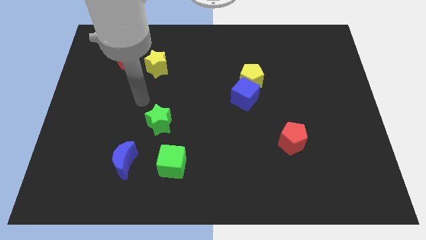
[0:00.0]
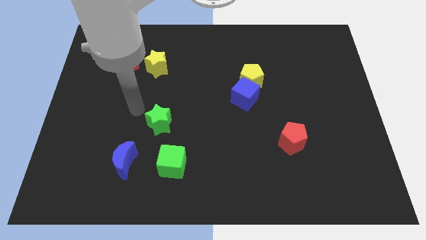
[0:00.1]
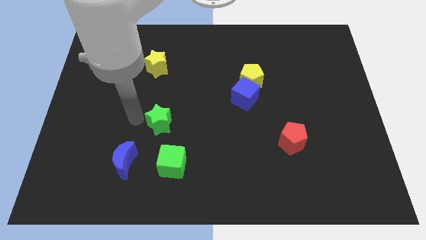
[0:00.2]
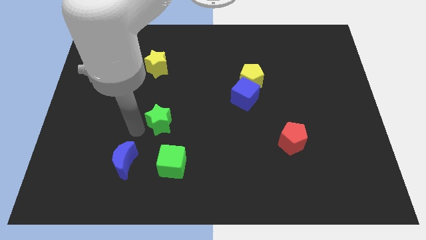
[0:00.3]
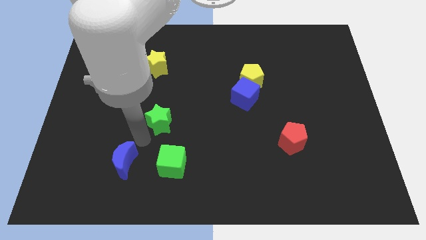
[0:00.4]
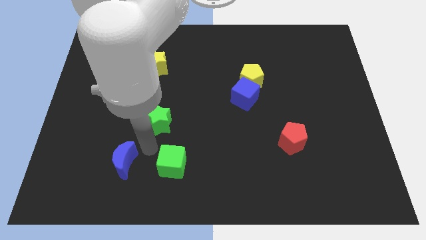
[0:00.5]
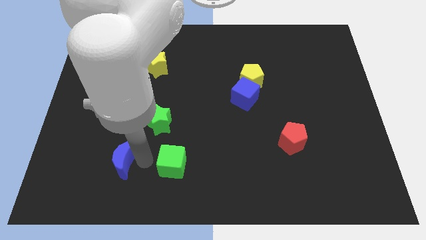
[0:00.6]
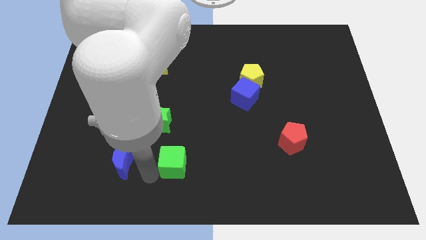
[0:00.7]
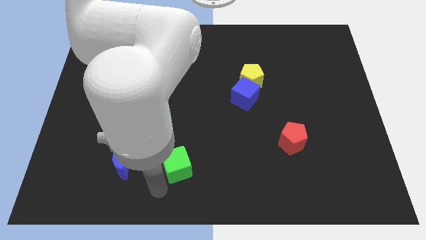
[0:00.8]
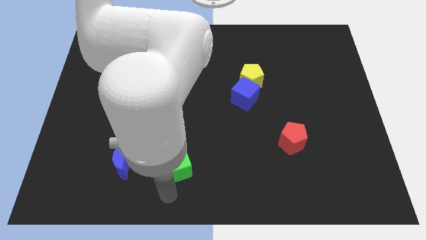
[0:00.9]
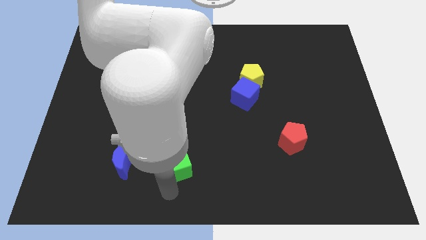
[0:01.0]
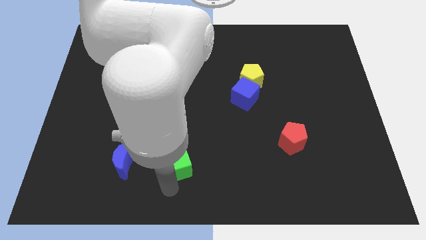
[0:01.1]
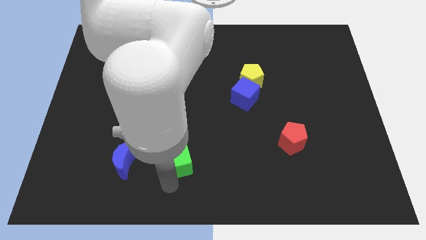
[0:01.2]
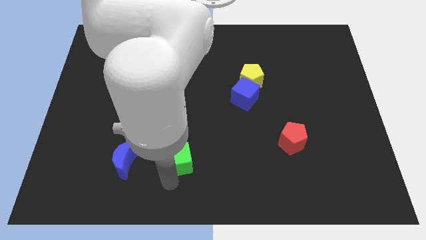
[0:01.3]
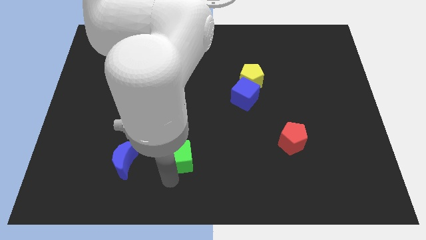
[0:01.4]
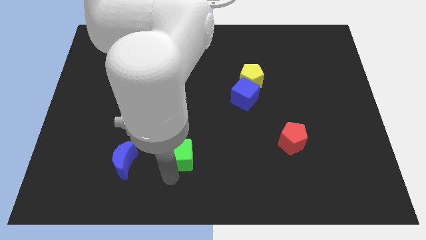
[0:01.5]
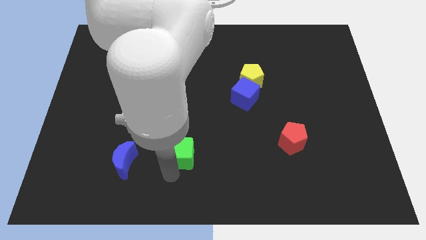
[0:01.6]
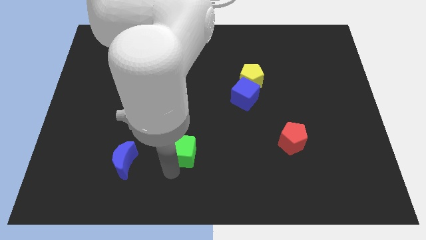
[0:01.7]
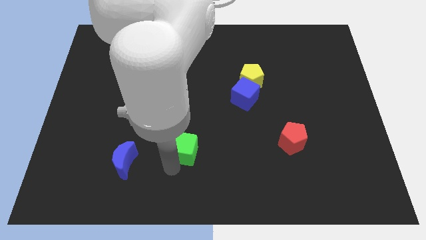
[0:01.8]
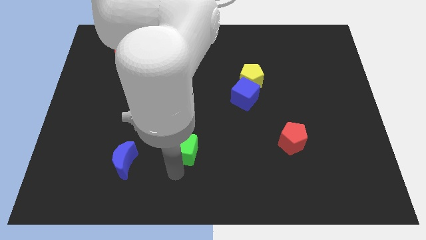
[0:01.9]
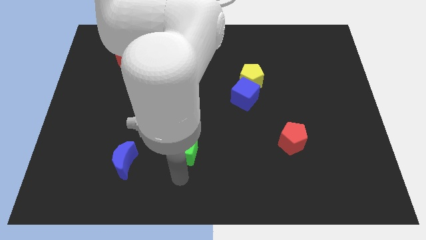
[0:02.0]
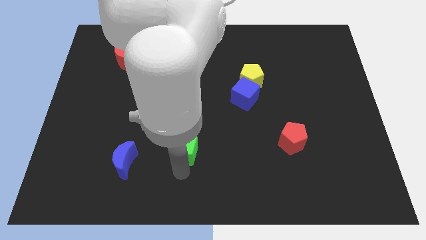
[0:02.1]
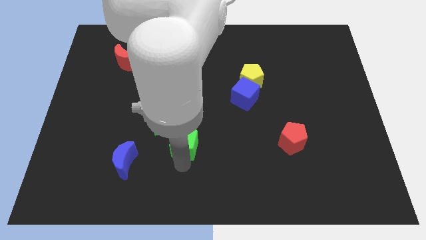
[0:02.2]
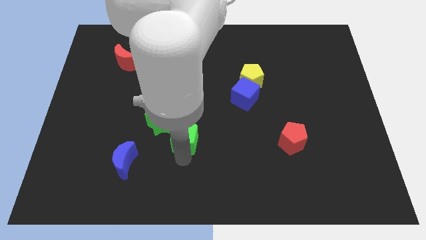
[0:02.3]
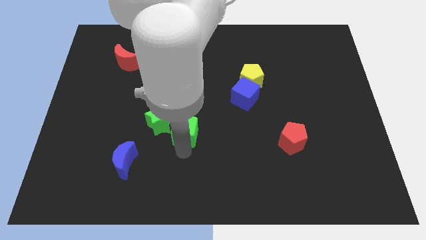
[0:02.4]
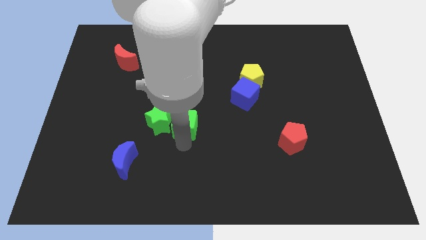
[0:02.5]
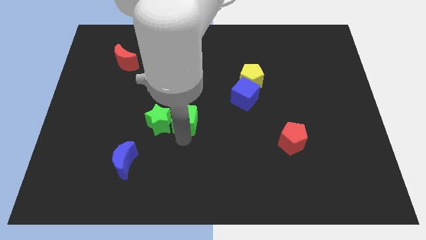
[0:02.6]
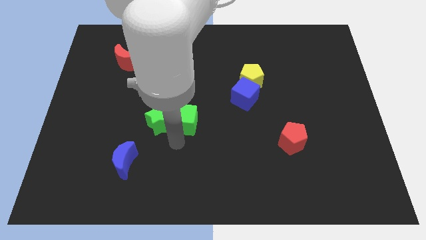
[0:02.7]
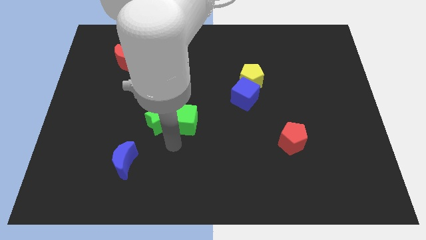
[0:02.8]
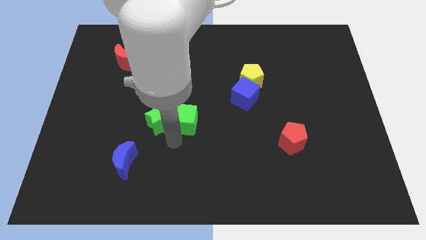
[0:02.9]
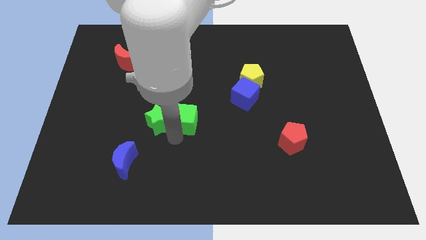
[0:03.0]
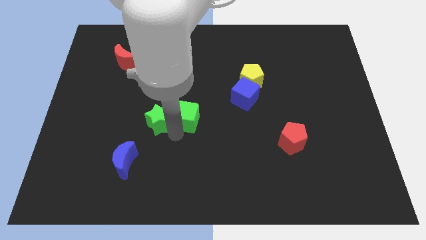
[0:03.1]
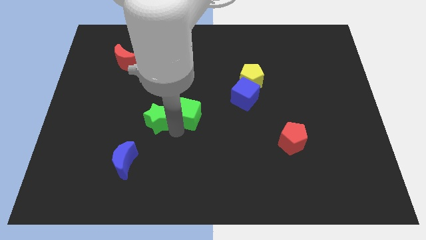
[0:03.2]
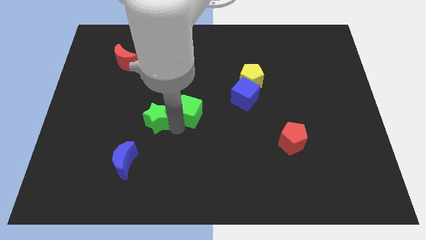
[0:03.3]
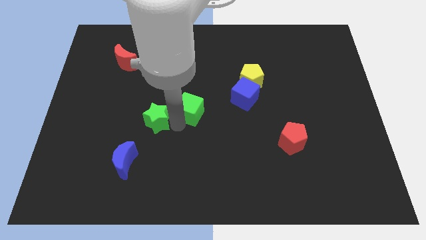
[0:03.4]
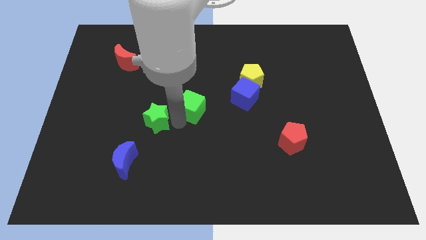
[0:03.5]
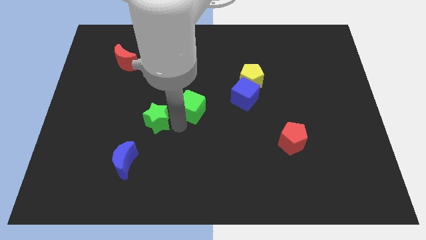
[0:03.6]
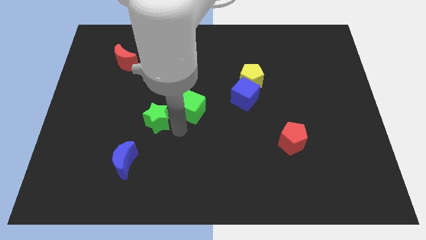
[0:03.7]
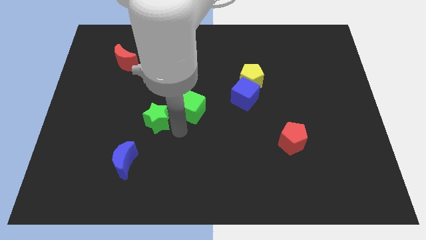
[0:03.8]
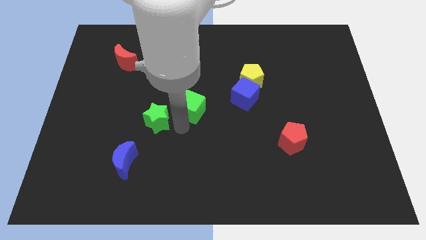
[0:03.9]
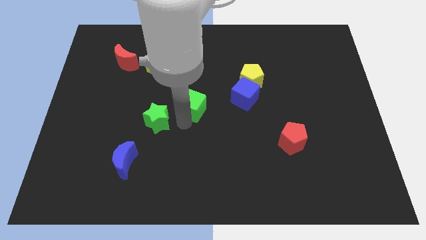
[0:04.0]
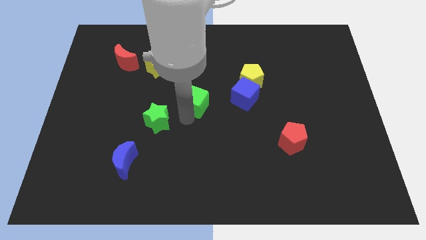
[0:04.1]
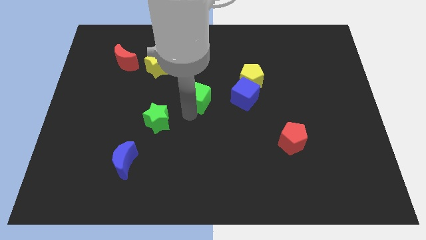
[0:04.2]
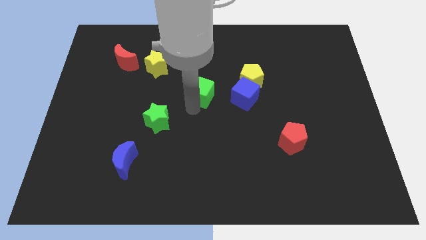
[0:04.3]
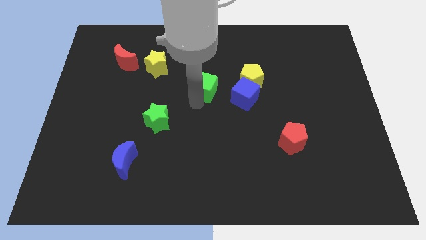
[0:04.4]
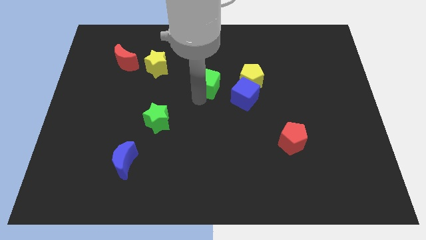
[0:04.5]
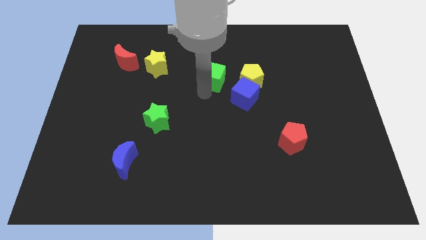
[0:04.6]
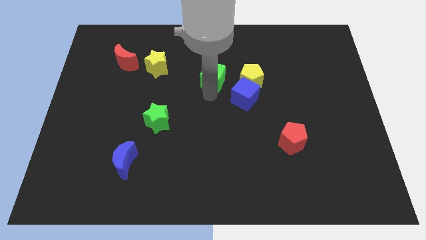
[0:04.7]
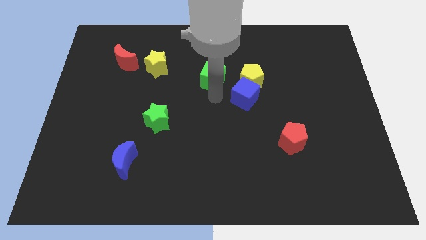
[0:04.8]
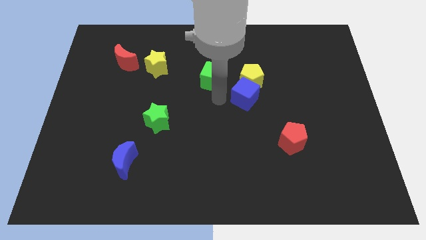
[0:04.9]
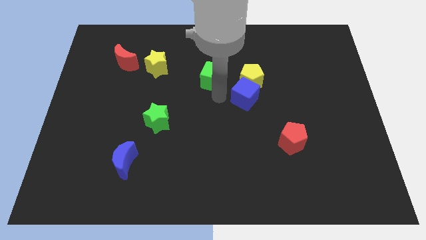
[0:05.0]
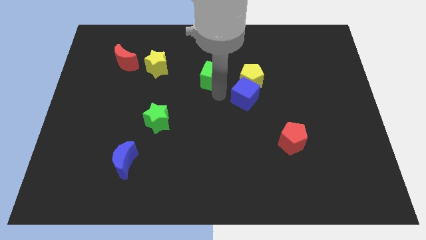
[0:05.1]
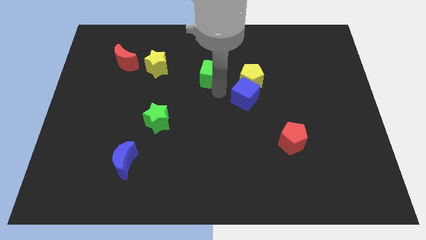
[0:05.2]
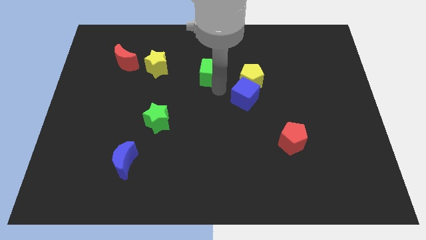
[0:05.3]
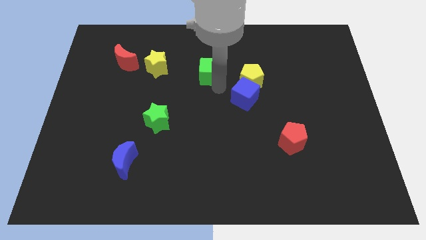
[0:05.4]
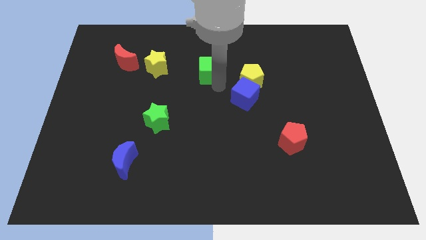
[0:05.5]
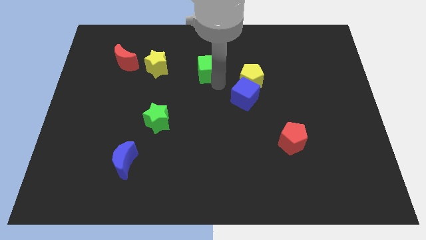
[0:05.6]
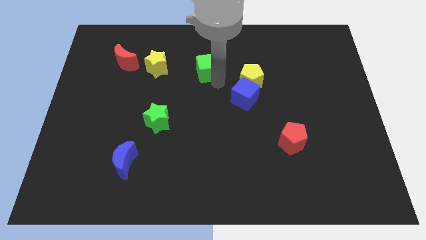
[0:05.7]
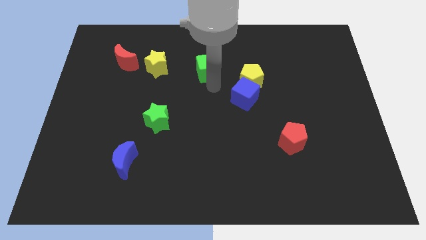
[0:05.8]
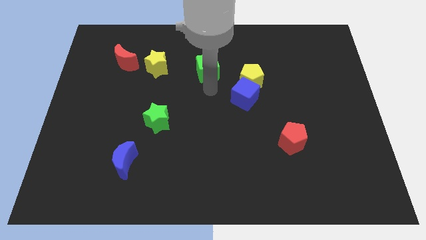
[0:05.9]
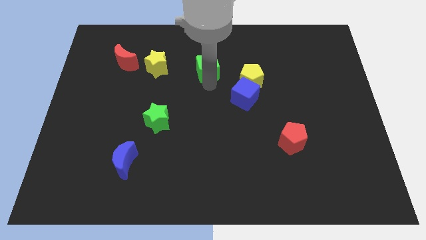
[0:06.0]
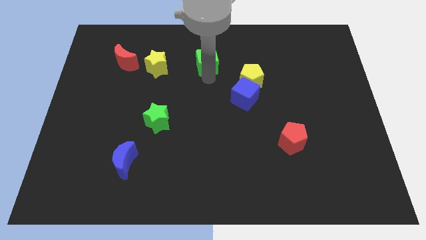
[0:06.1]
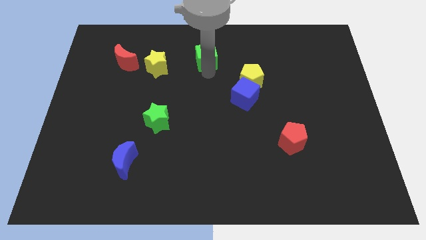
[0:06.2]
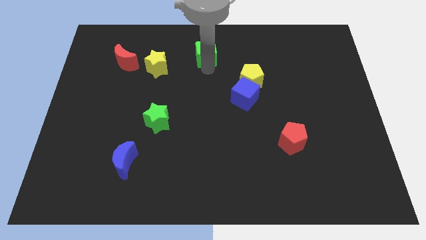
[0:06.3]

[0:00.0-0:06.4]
put the green cube to the top side

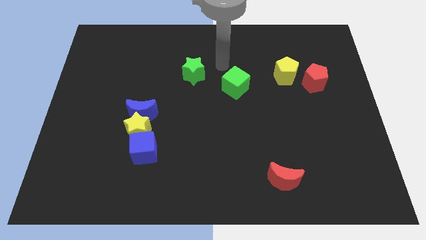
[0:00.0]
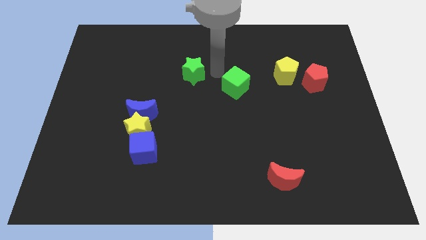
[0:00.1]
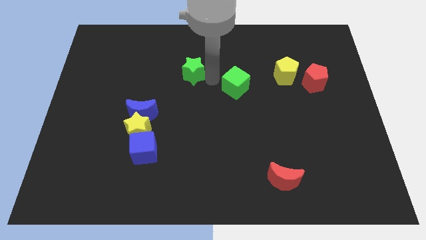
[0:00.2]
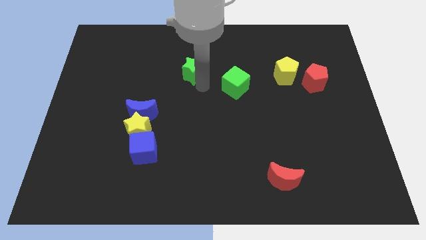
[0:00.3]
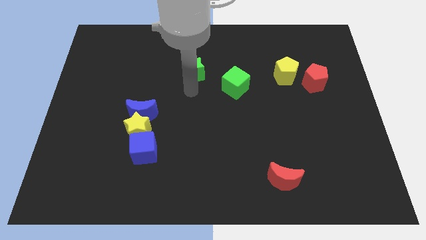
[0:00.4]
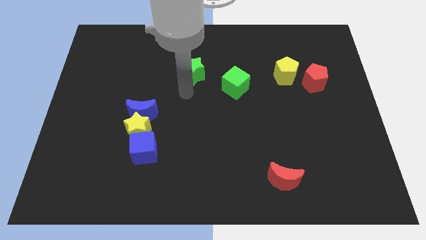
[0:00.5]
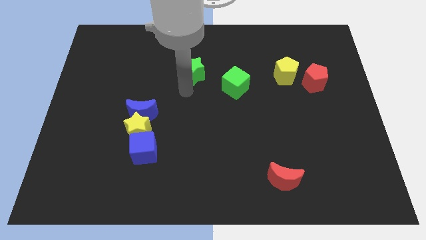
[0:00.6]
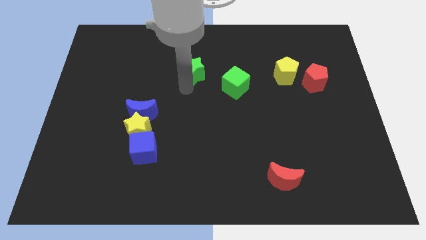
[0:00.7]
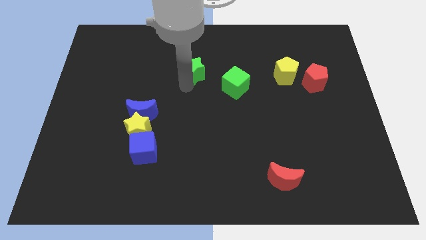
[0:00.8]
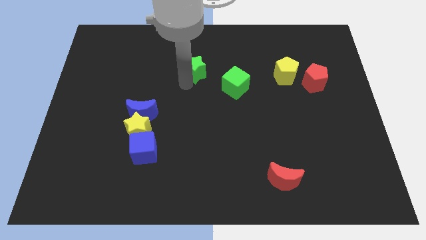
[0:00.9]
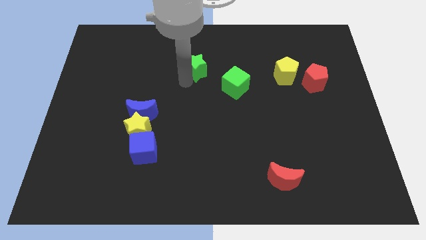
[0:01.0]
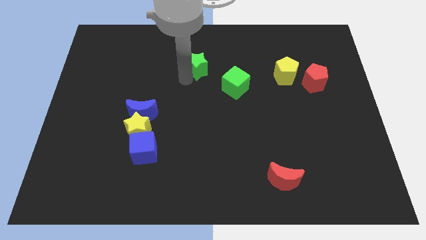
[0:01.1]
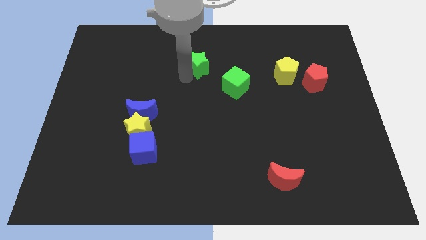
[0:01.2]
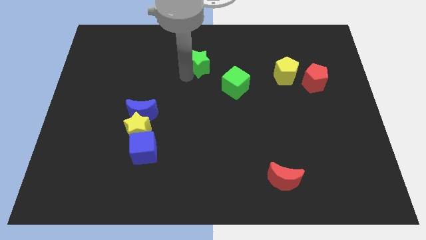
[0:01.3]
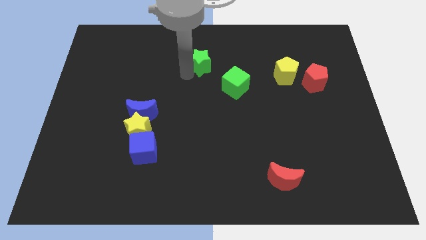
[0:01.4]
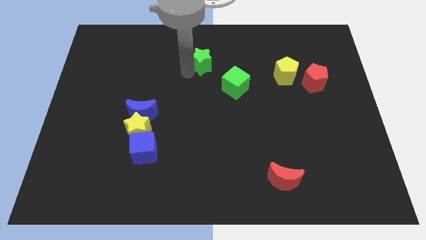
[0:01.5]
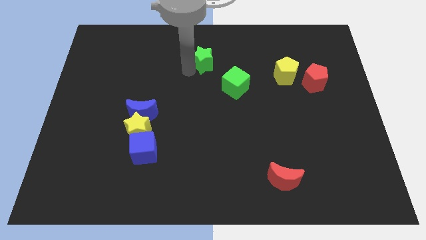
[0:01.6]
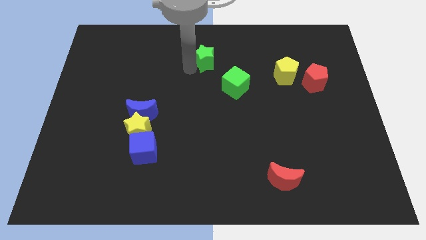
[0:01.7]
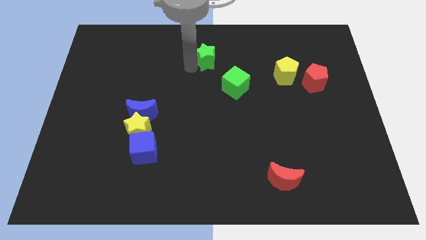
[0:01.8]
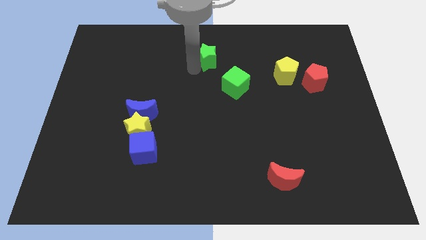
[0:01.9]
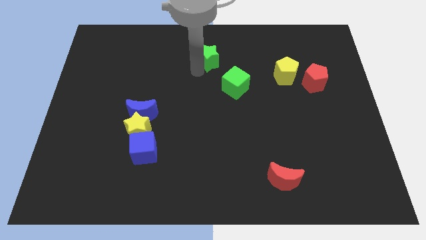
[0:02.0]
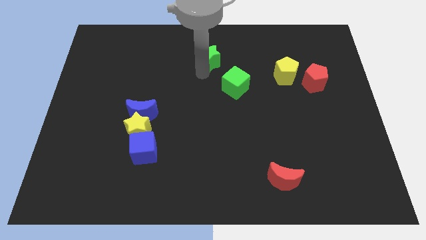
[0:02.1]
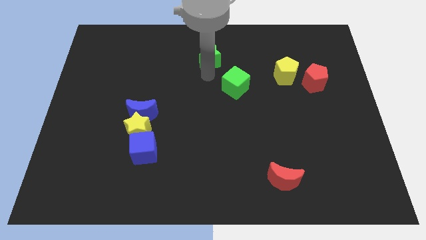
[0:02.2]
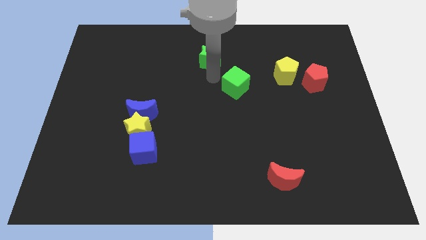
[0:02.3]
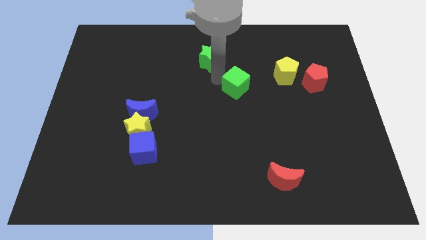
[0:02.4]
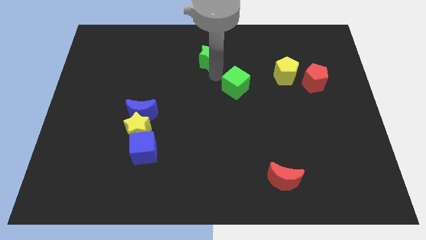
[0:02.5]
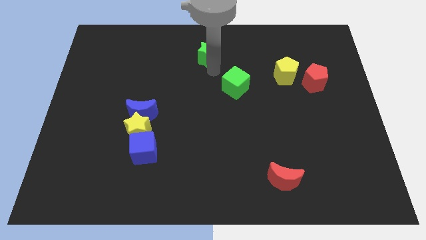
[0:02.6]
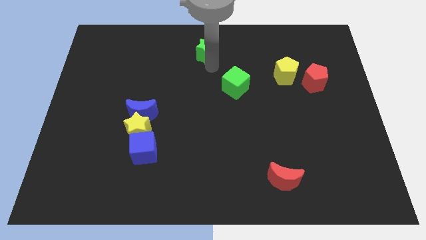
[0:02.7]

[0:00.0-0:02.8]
slide the green star to the top
